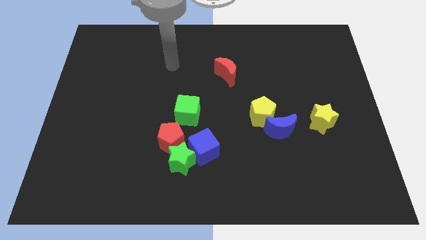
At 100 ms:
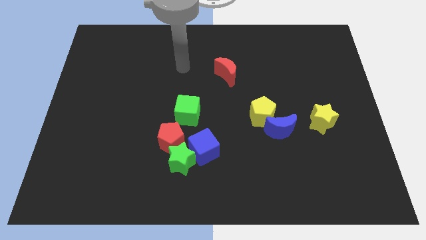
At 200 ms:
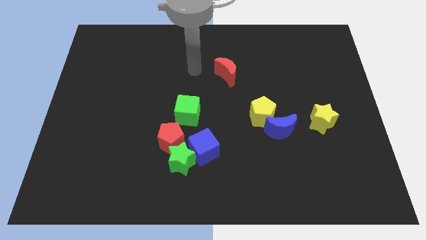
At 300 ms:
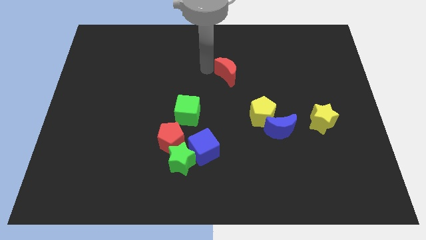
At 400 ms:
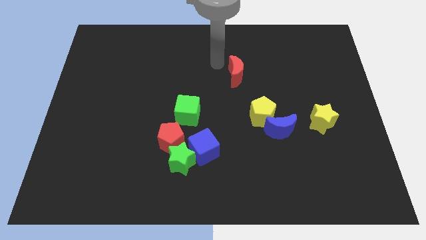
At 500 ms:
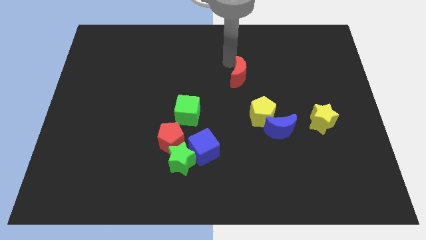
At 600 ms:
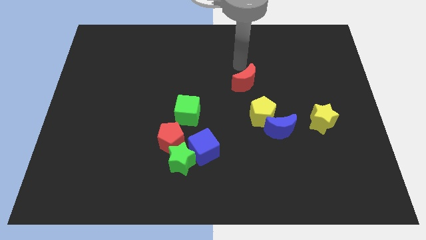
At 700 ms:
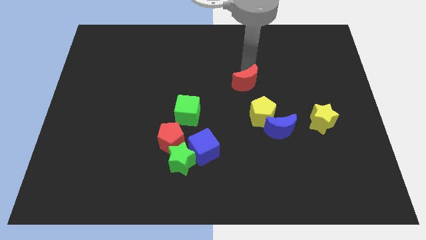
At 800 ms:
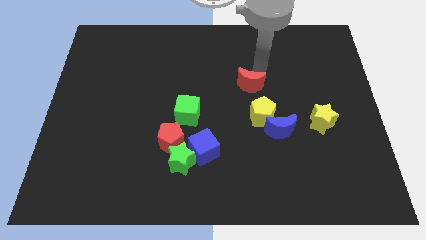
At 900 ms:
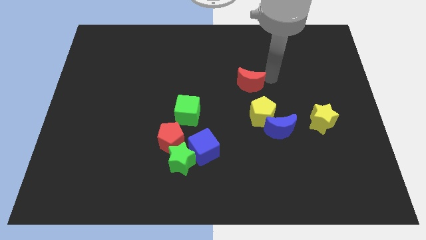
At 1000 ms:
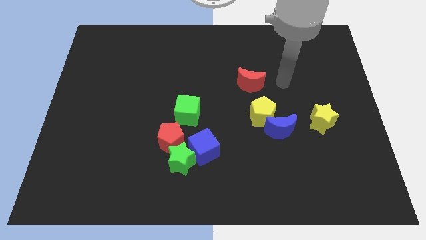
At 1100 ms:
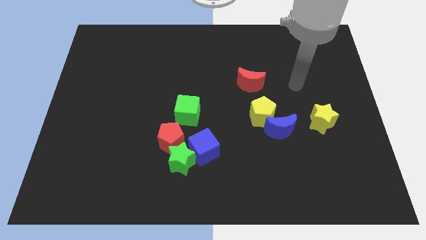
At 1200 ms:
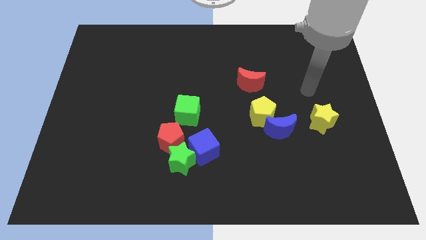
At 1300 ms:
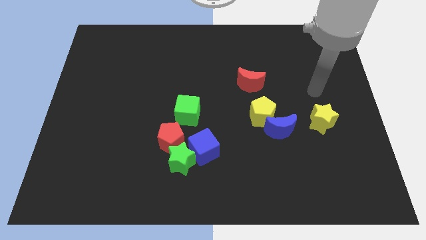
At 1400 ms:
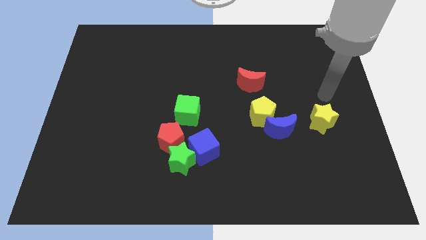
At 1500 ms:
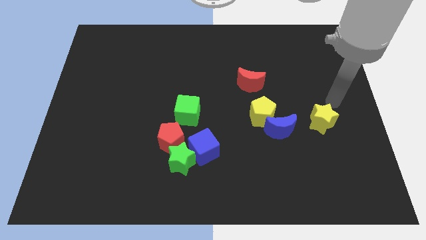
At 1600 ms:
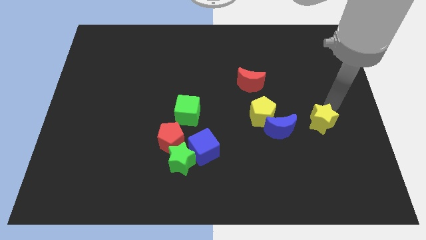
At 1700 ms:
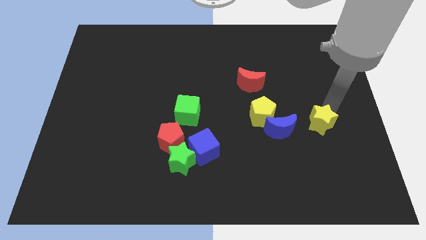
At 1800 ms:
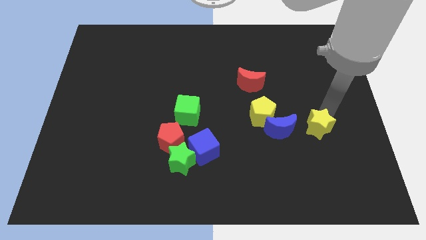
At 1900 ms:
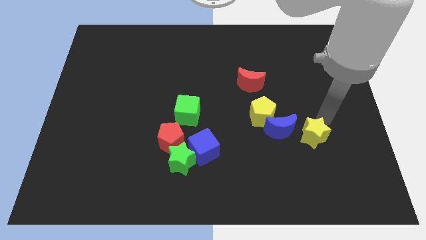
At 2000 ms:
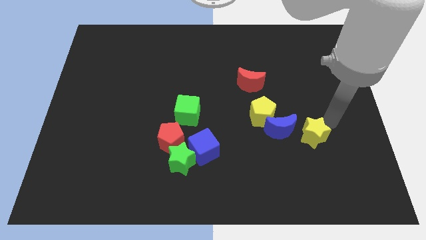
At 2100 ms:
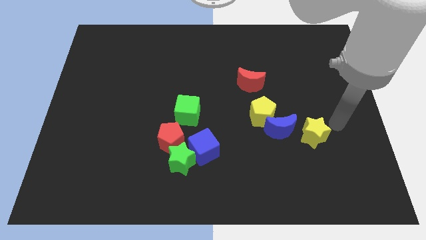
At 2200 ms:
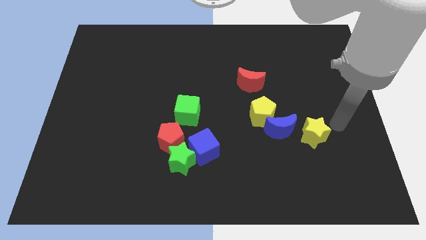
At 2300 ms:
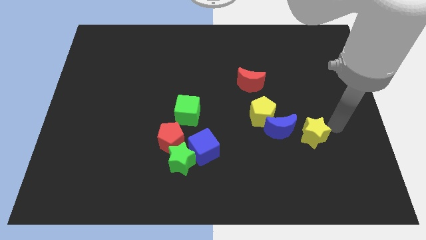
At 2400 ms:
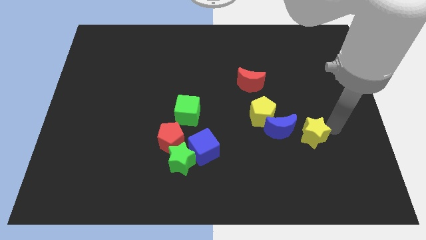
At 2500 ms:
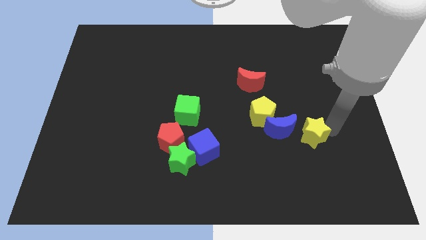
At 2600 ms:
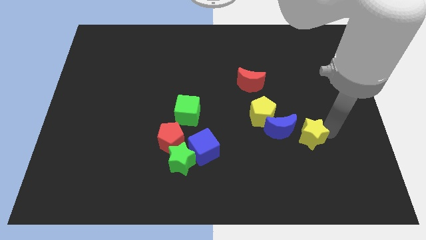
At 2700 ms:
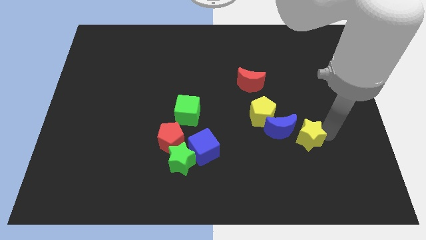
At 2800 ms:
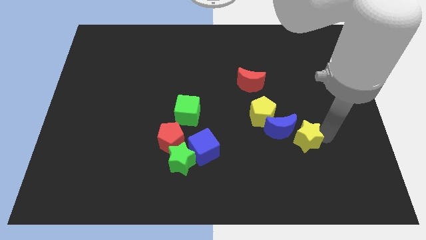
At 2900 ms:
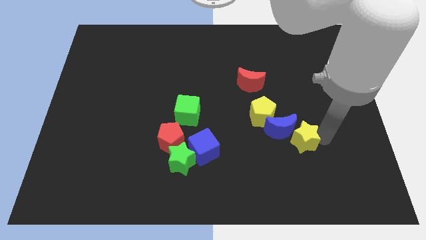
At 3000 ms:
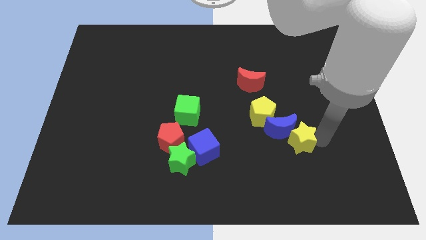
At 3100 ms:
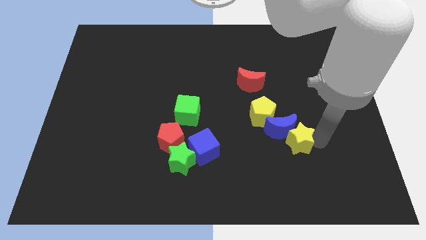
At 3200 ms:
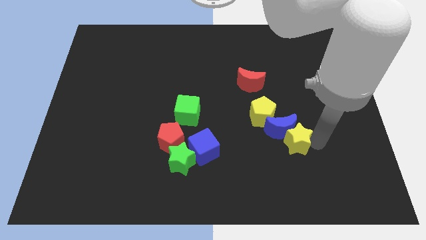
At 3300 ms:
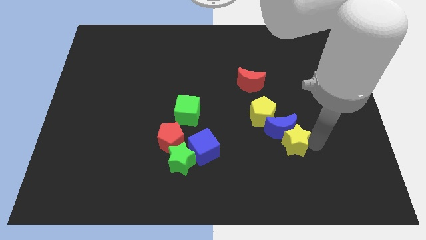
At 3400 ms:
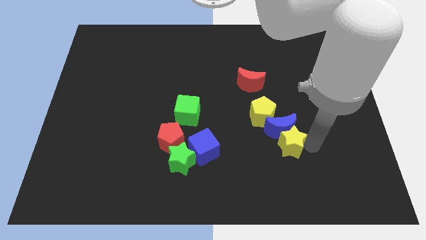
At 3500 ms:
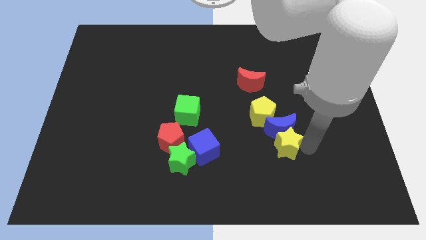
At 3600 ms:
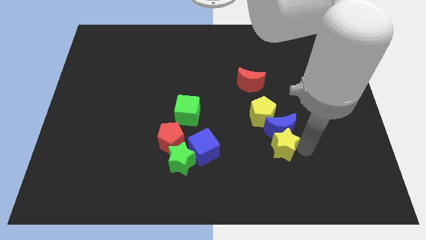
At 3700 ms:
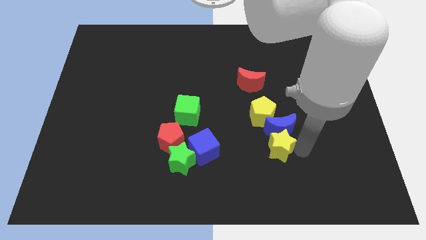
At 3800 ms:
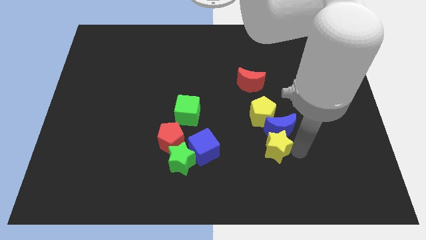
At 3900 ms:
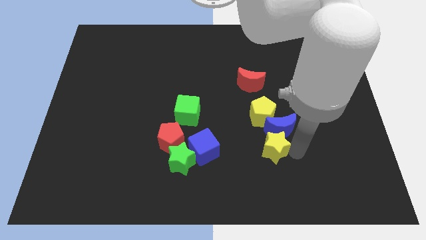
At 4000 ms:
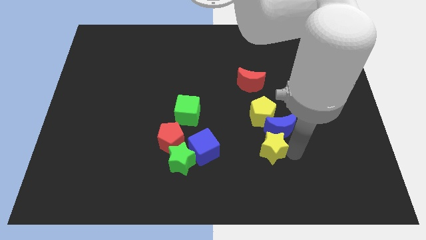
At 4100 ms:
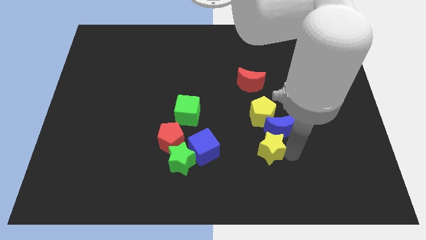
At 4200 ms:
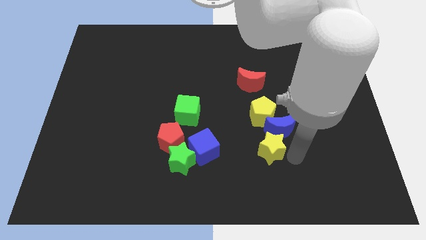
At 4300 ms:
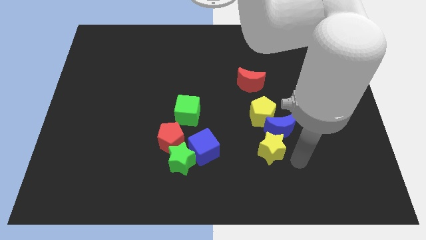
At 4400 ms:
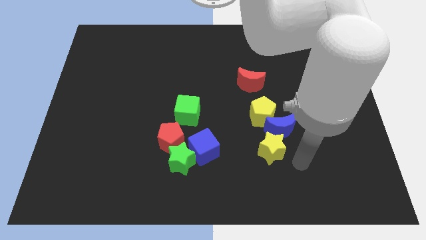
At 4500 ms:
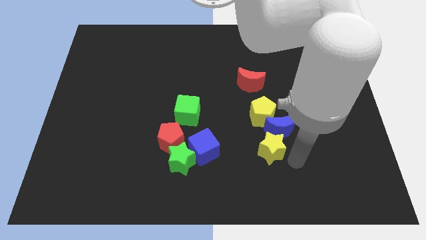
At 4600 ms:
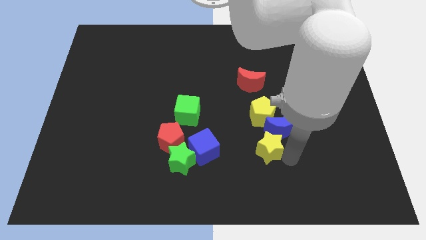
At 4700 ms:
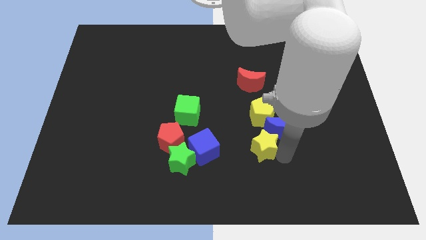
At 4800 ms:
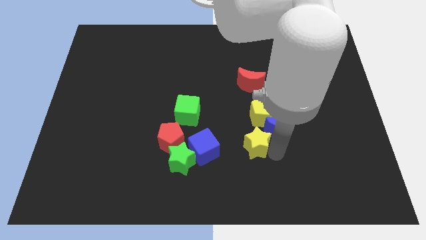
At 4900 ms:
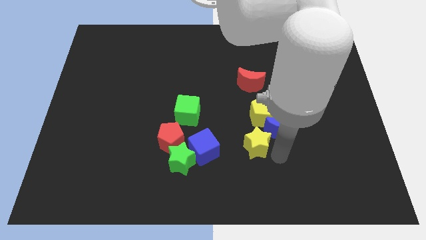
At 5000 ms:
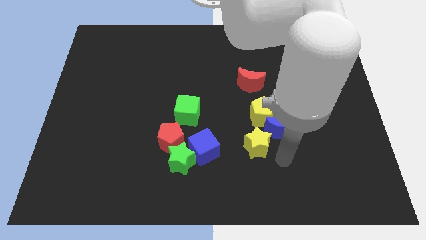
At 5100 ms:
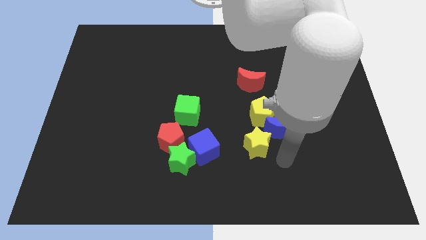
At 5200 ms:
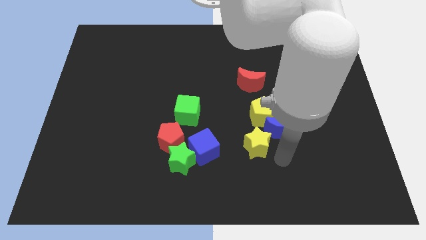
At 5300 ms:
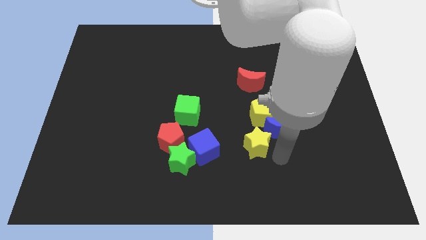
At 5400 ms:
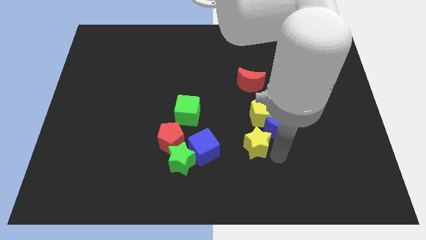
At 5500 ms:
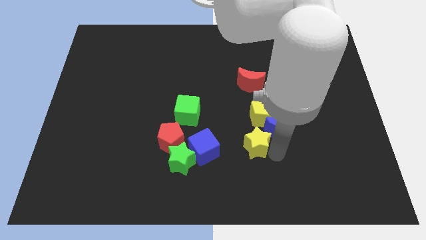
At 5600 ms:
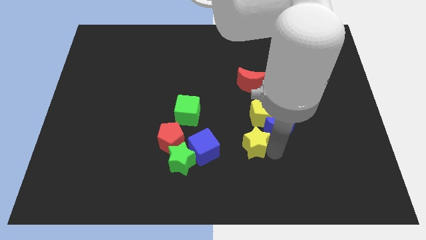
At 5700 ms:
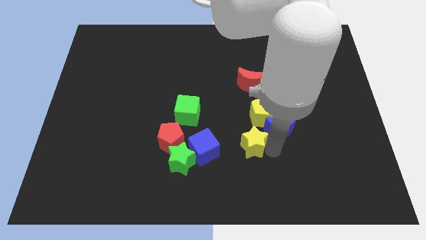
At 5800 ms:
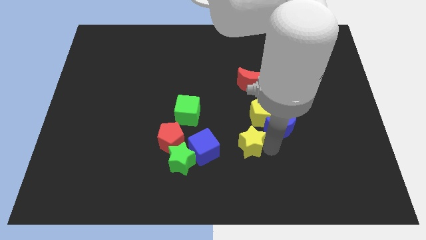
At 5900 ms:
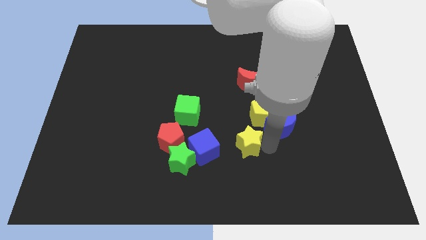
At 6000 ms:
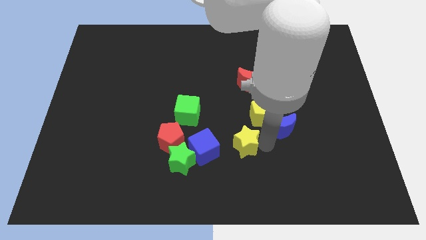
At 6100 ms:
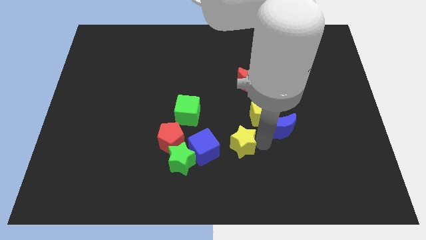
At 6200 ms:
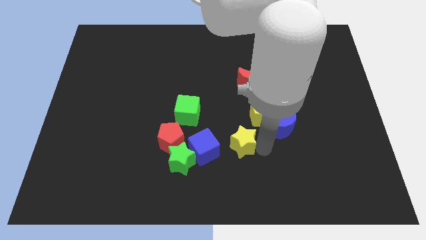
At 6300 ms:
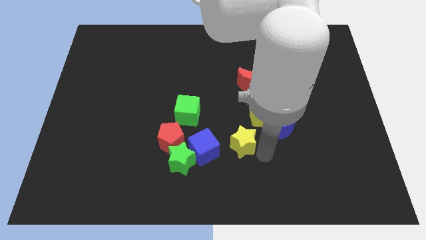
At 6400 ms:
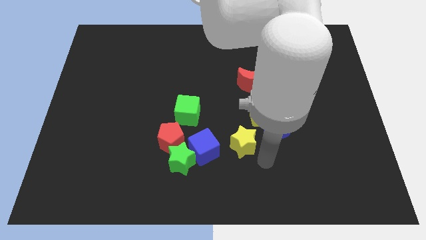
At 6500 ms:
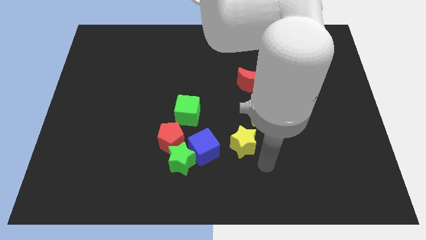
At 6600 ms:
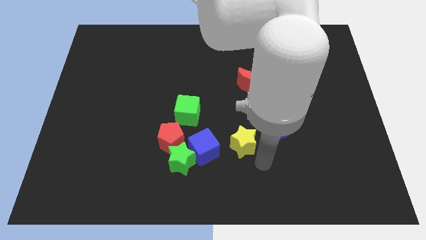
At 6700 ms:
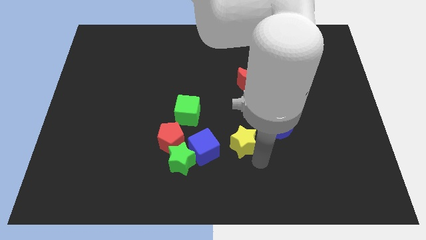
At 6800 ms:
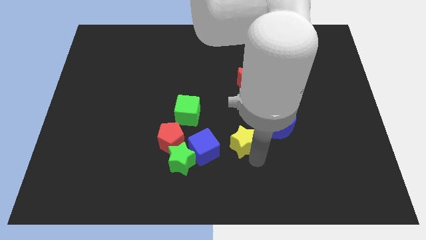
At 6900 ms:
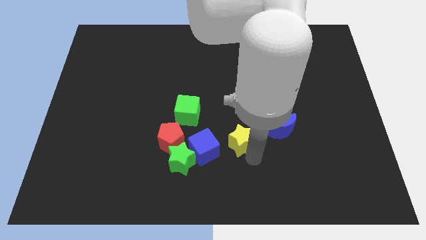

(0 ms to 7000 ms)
push the yellow star diagonally up and to the right of the blue cube
